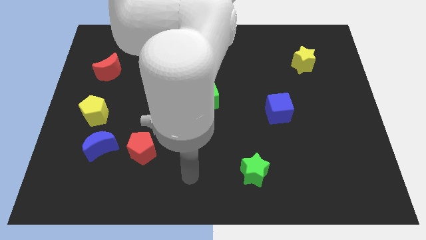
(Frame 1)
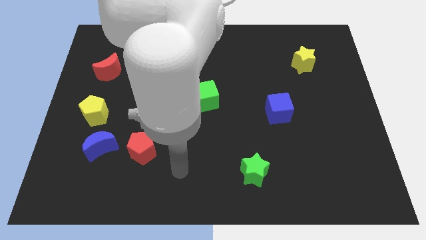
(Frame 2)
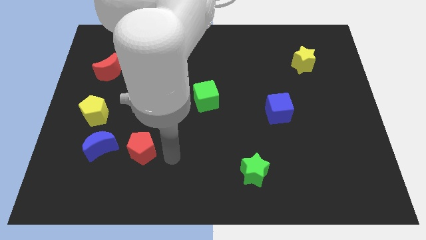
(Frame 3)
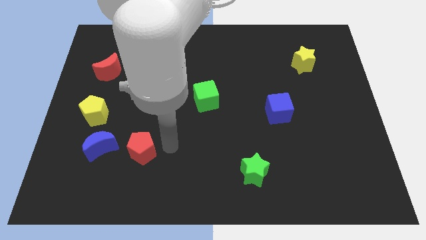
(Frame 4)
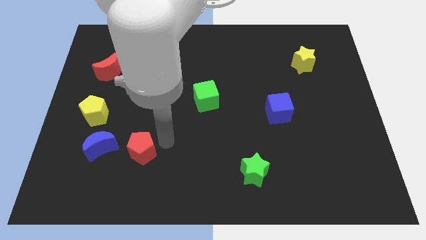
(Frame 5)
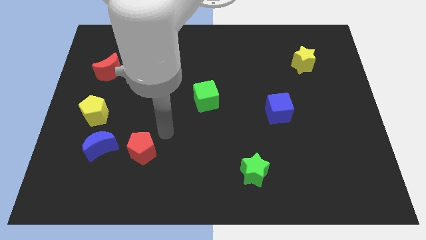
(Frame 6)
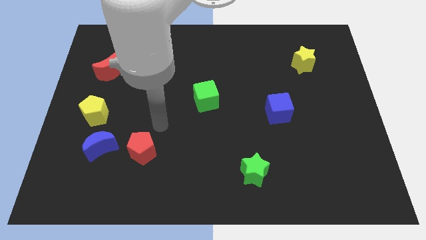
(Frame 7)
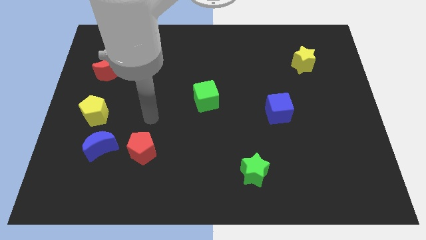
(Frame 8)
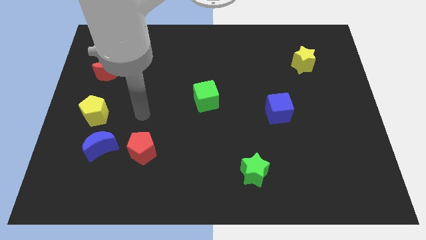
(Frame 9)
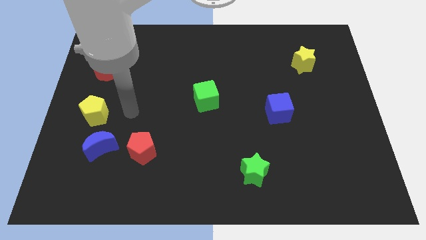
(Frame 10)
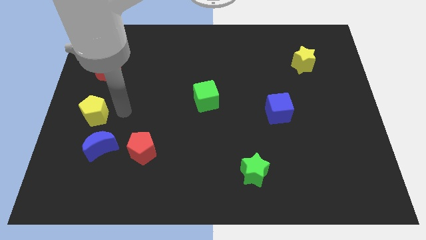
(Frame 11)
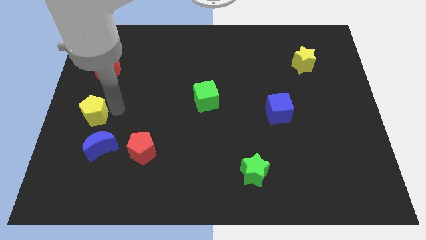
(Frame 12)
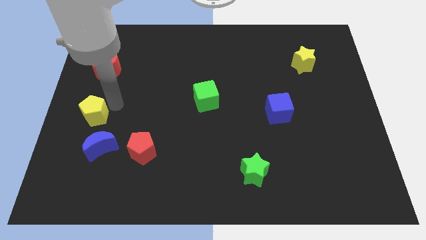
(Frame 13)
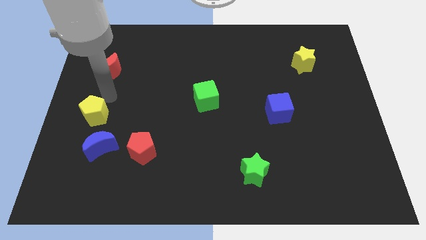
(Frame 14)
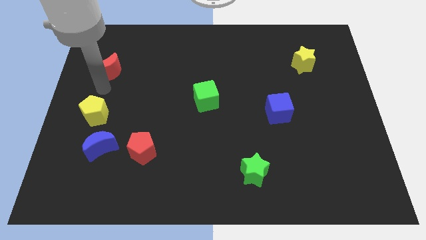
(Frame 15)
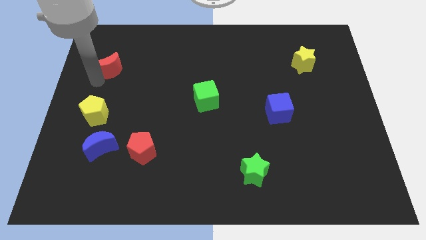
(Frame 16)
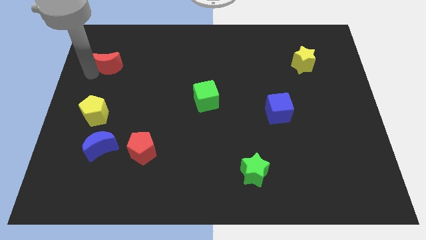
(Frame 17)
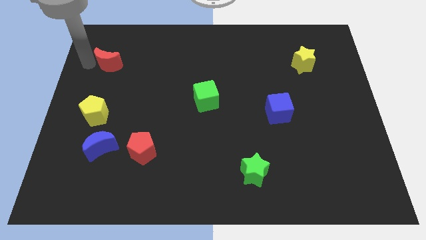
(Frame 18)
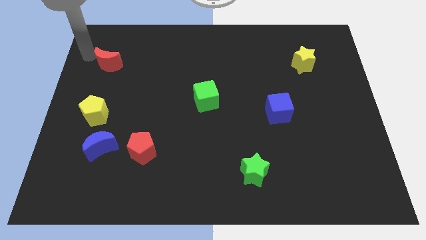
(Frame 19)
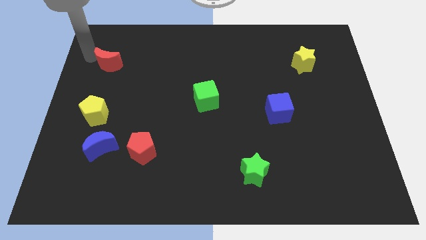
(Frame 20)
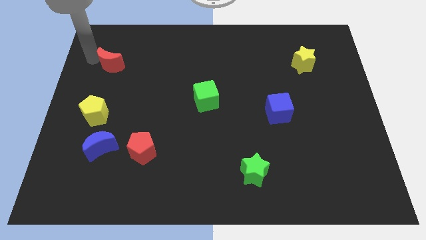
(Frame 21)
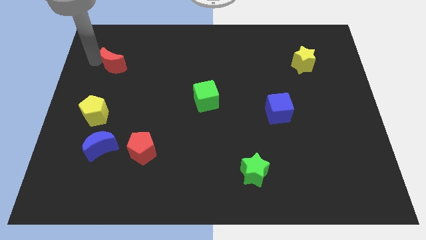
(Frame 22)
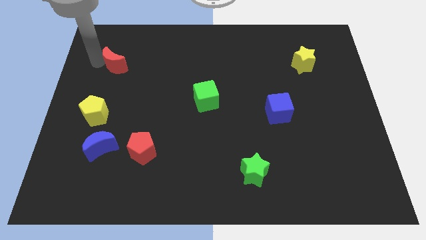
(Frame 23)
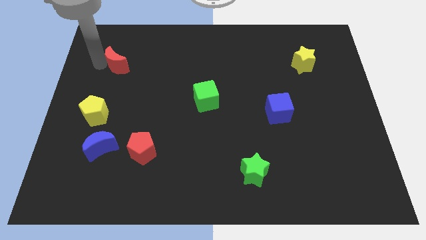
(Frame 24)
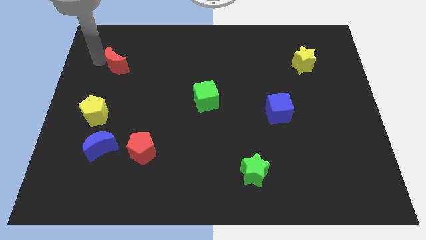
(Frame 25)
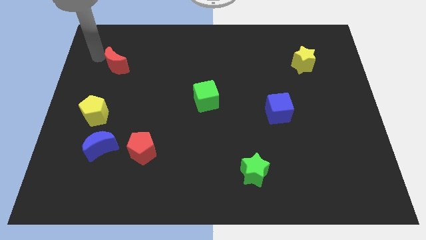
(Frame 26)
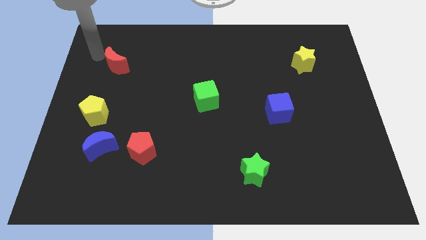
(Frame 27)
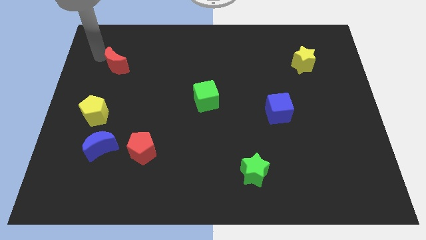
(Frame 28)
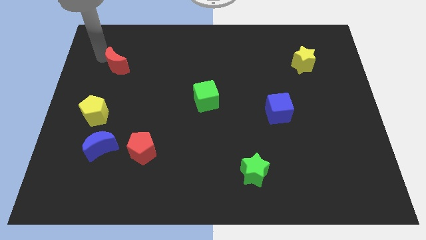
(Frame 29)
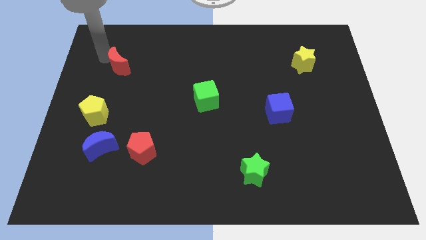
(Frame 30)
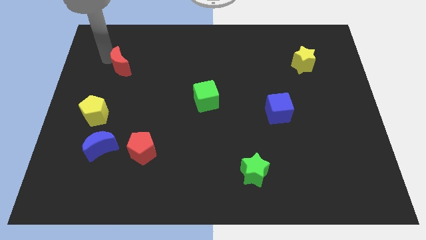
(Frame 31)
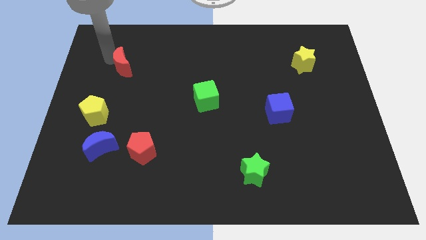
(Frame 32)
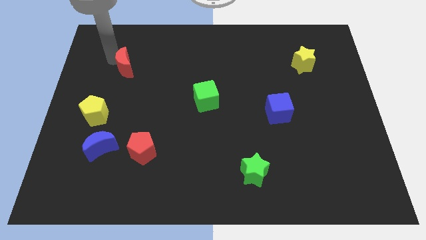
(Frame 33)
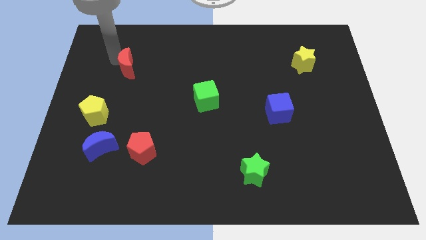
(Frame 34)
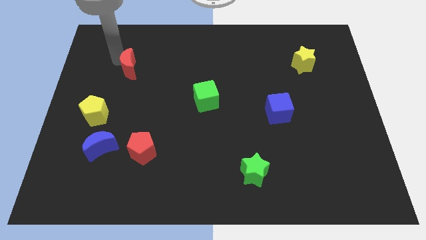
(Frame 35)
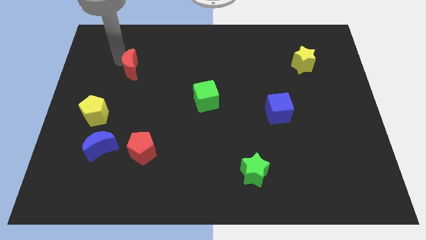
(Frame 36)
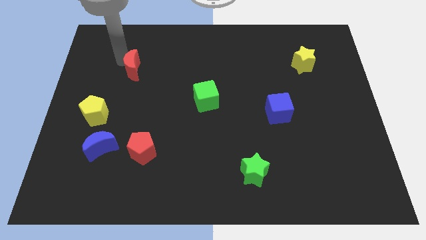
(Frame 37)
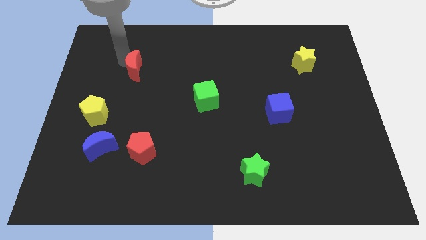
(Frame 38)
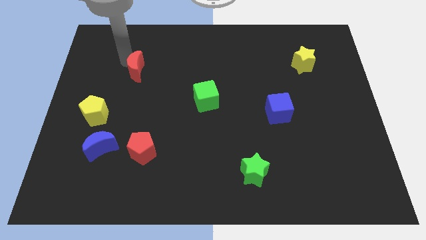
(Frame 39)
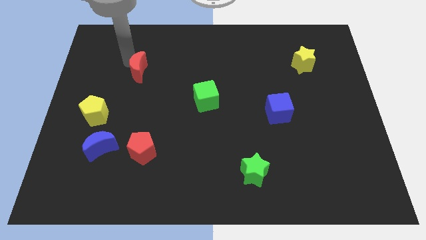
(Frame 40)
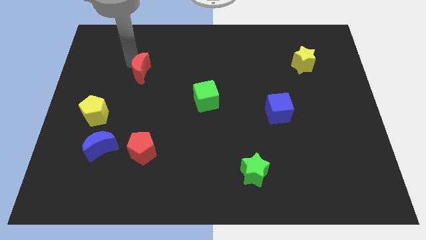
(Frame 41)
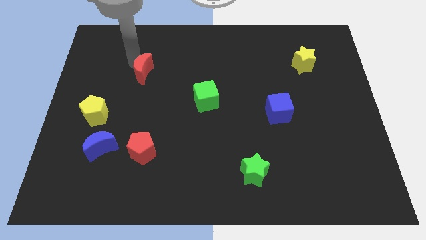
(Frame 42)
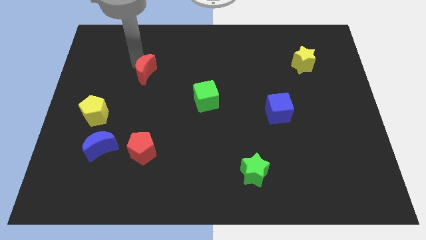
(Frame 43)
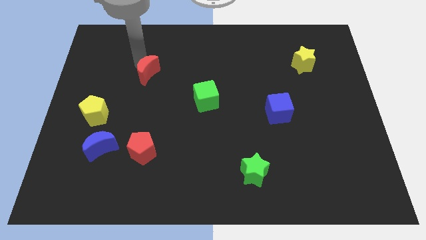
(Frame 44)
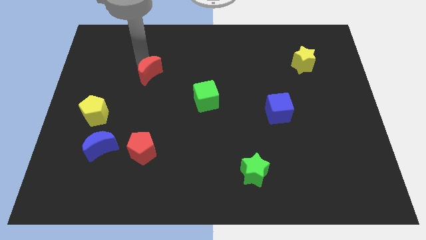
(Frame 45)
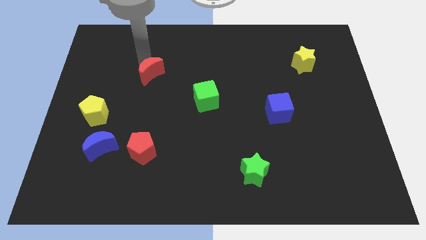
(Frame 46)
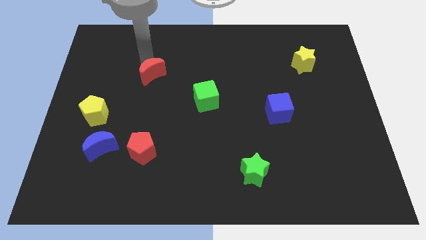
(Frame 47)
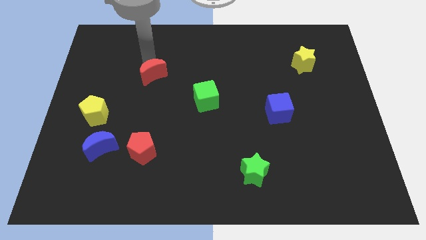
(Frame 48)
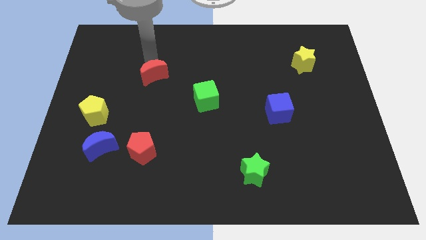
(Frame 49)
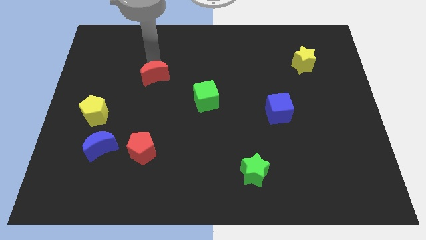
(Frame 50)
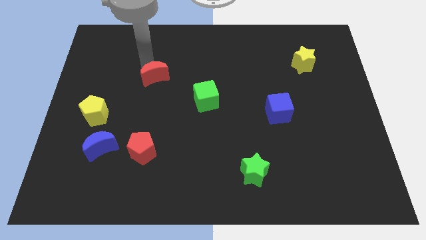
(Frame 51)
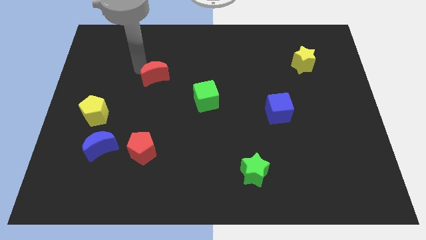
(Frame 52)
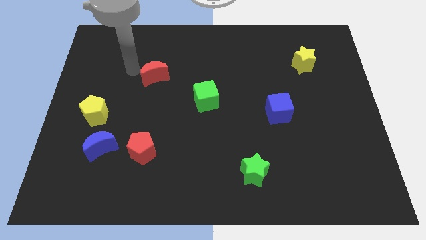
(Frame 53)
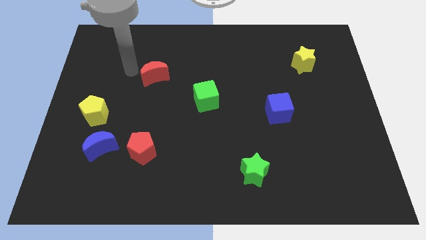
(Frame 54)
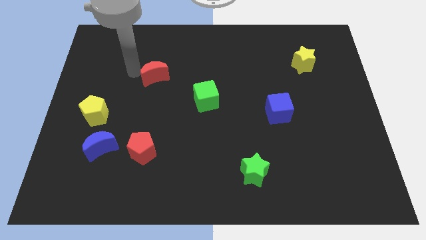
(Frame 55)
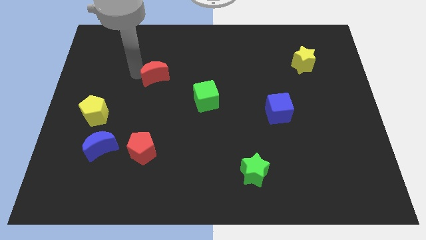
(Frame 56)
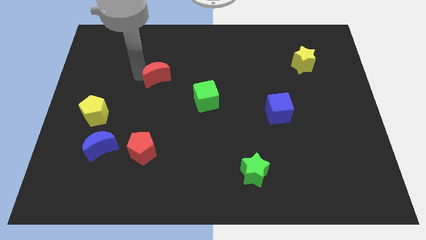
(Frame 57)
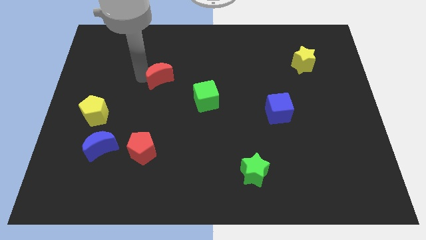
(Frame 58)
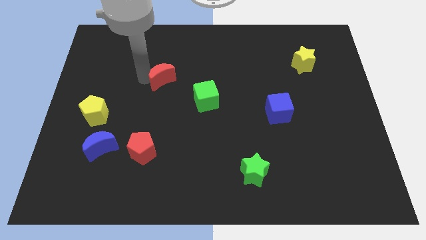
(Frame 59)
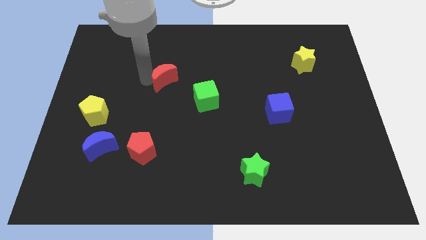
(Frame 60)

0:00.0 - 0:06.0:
slide the red moon to the top left side of the green cube

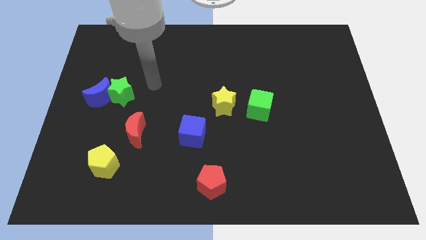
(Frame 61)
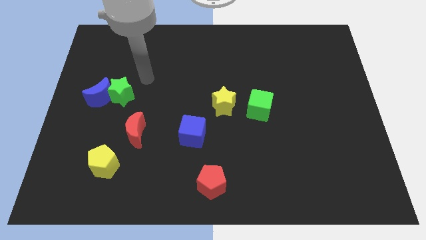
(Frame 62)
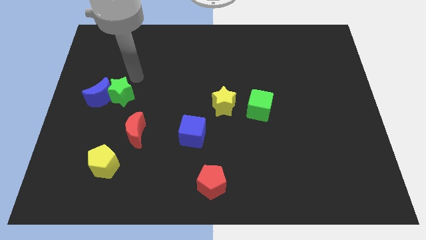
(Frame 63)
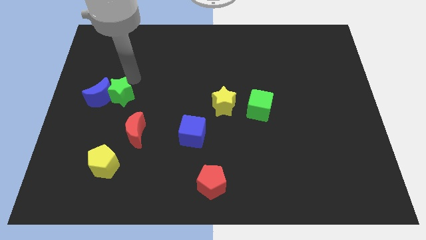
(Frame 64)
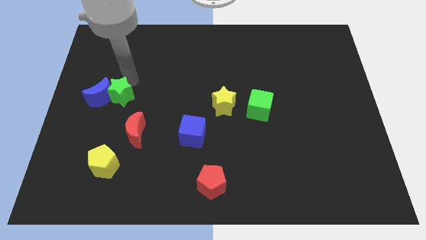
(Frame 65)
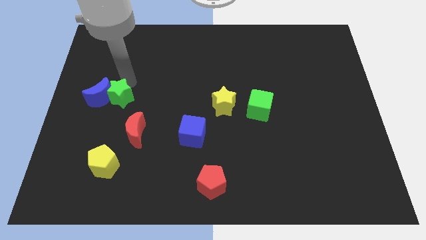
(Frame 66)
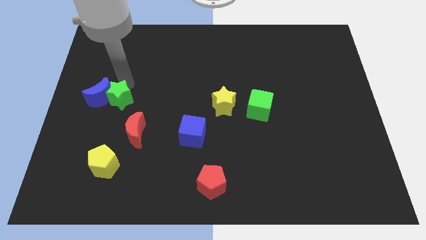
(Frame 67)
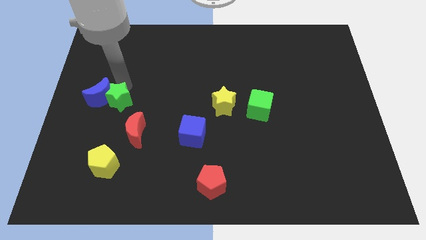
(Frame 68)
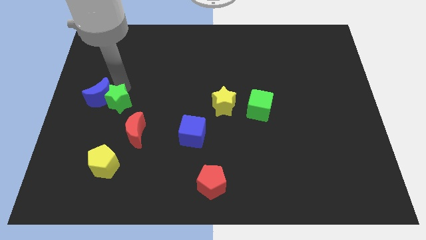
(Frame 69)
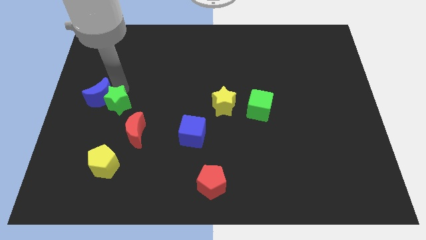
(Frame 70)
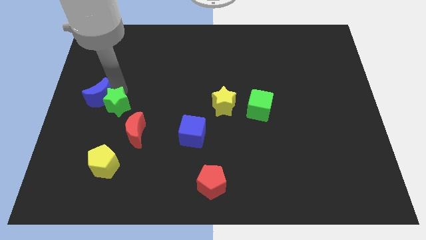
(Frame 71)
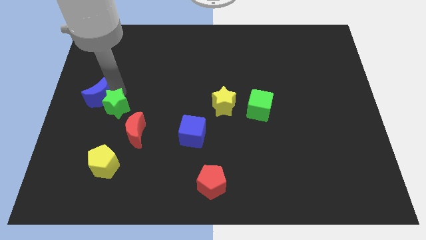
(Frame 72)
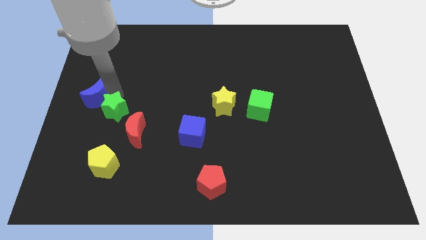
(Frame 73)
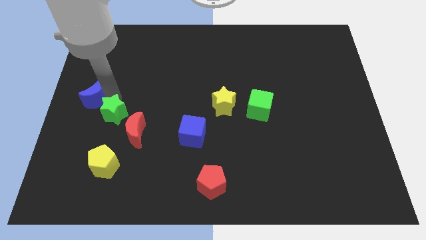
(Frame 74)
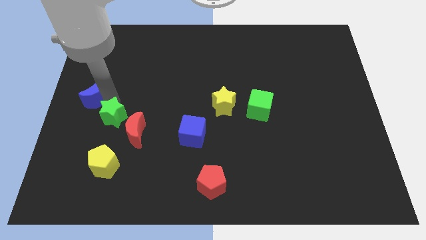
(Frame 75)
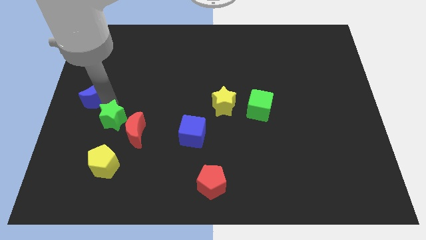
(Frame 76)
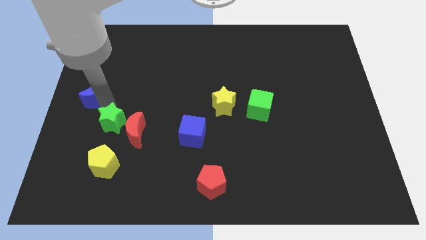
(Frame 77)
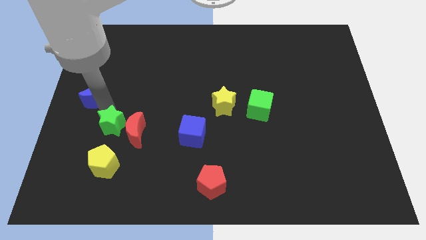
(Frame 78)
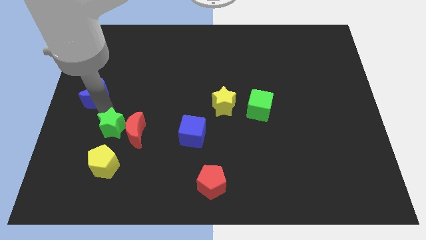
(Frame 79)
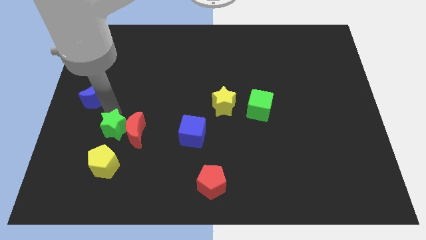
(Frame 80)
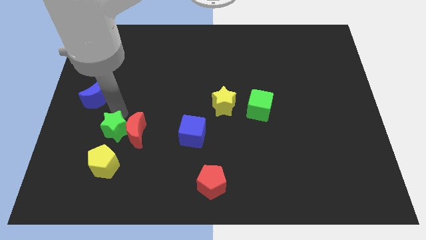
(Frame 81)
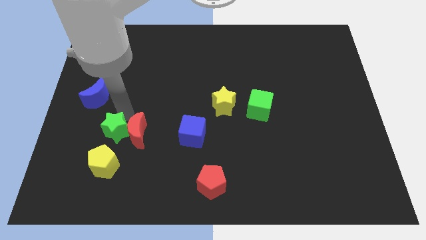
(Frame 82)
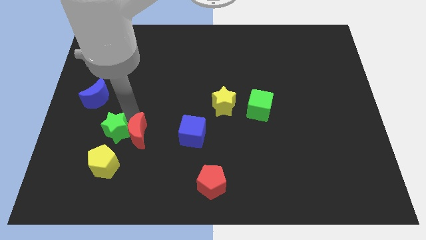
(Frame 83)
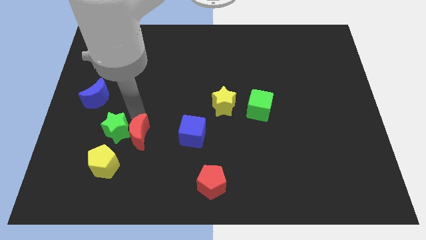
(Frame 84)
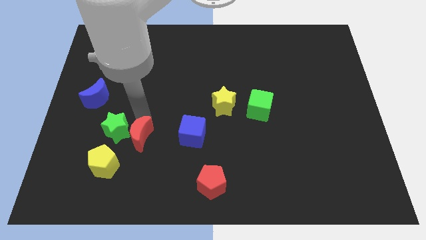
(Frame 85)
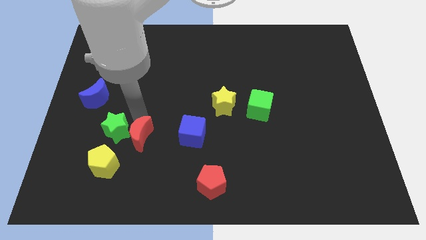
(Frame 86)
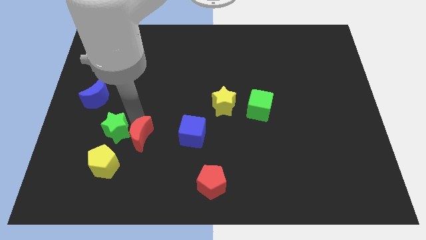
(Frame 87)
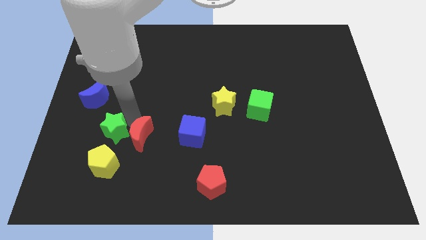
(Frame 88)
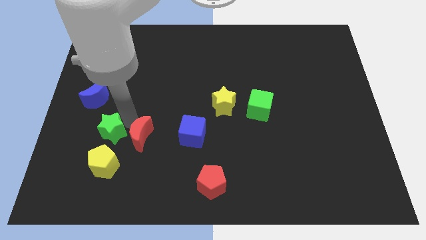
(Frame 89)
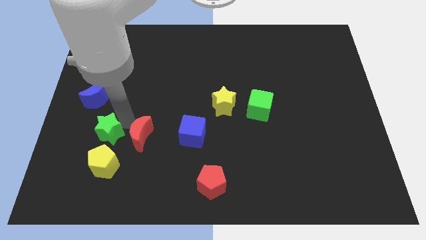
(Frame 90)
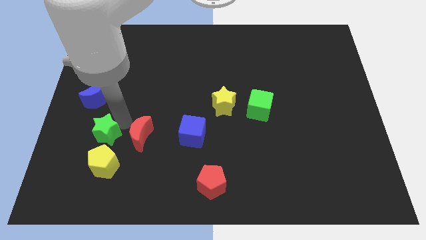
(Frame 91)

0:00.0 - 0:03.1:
push the green star to the top left side of the yellow pentagon
